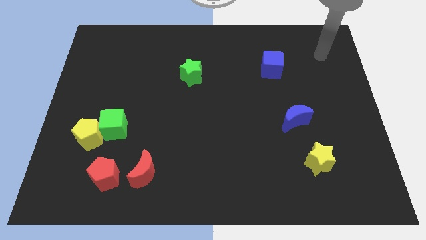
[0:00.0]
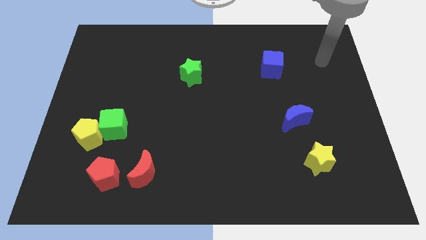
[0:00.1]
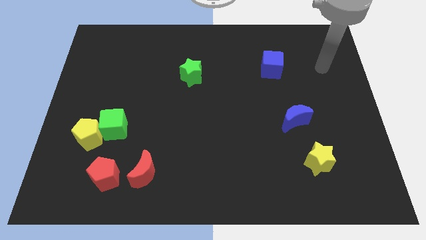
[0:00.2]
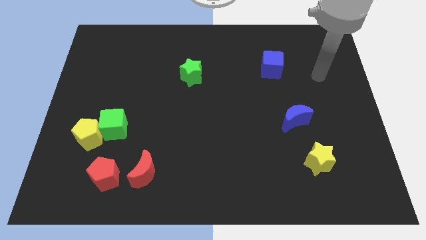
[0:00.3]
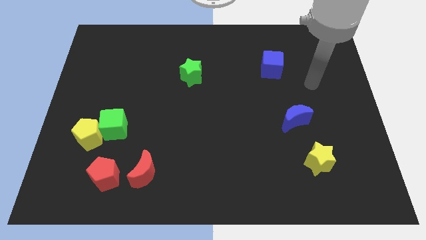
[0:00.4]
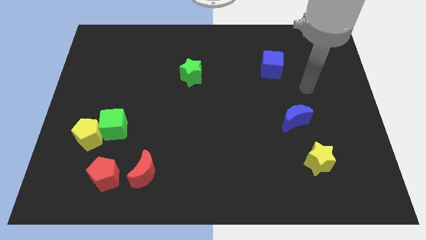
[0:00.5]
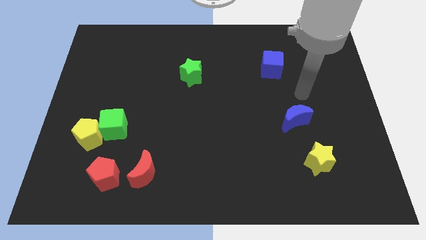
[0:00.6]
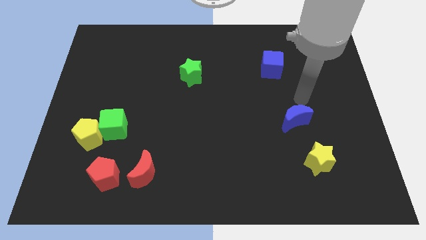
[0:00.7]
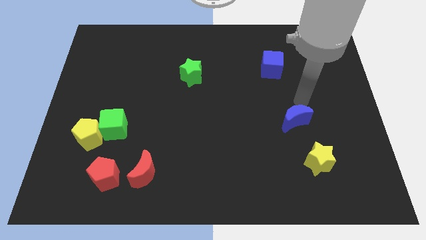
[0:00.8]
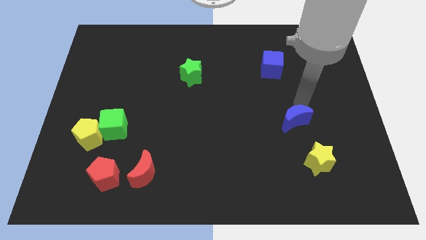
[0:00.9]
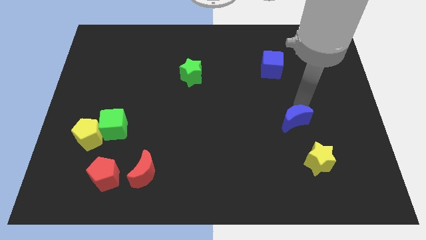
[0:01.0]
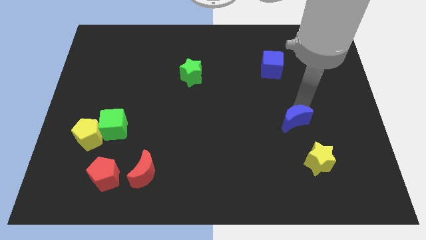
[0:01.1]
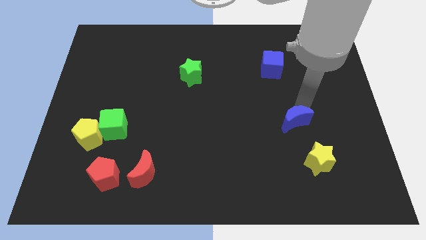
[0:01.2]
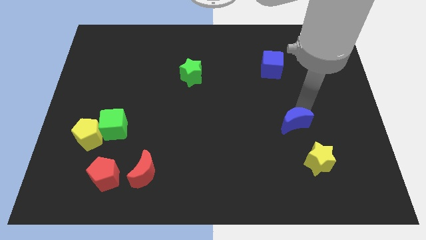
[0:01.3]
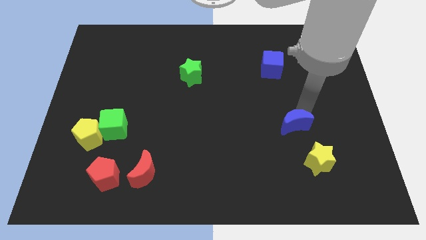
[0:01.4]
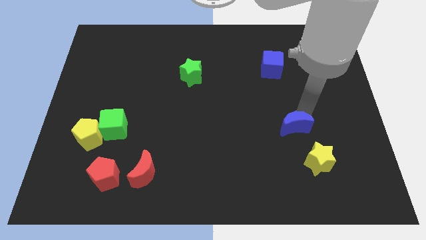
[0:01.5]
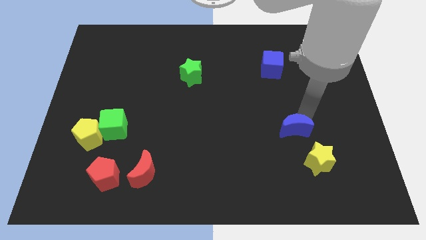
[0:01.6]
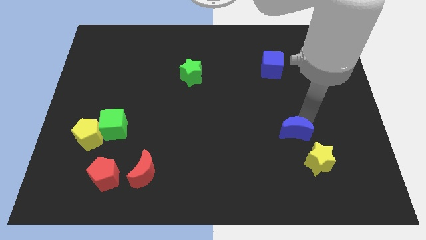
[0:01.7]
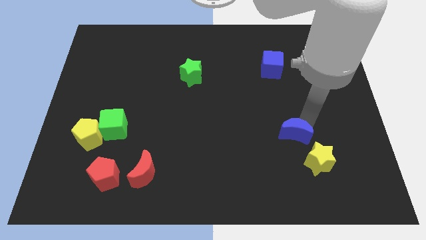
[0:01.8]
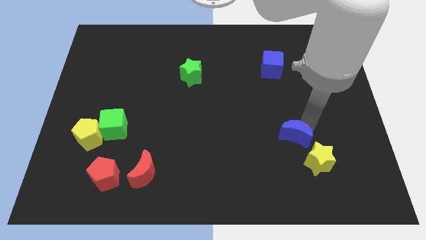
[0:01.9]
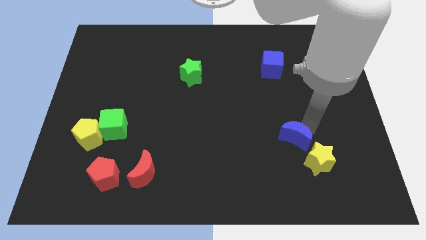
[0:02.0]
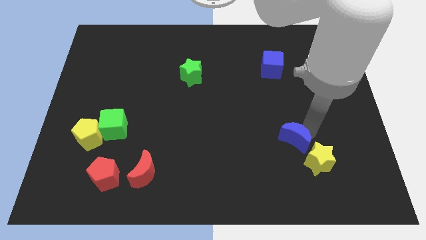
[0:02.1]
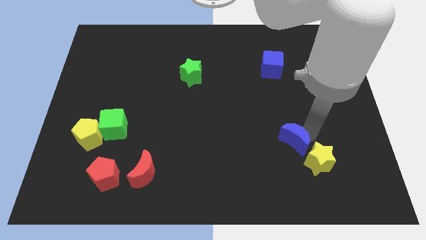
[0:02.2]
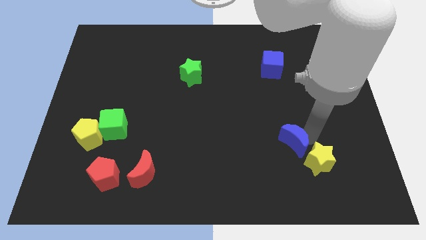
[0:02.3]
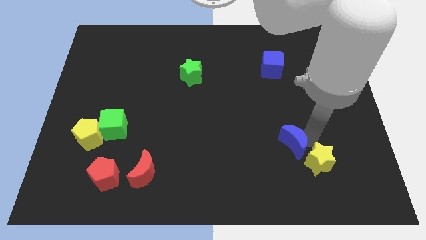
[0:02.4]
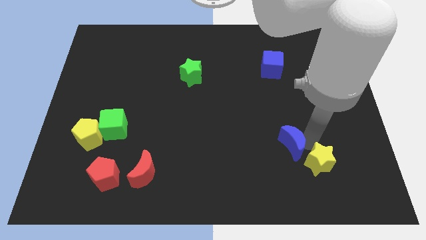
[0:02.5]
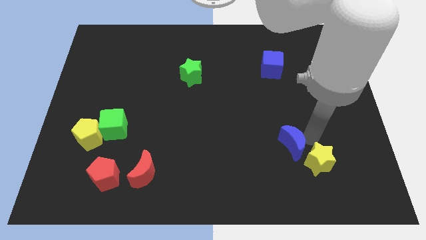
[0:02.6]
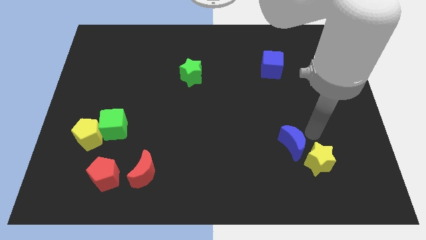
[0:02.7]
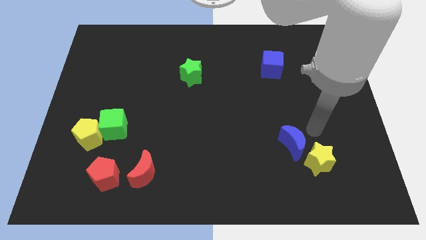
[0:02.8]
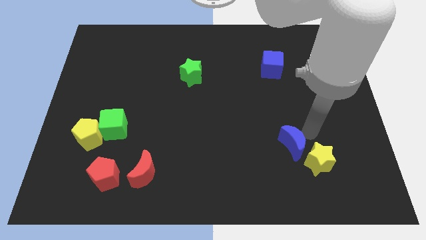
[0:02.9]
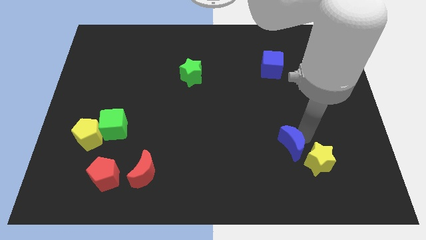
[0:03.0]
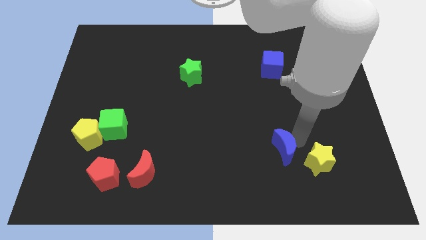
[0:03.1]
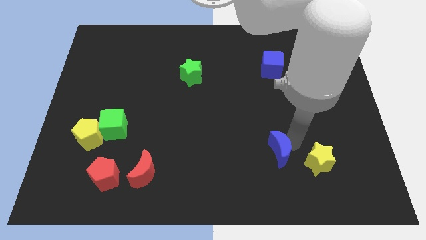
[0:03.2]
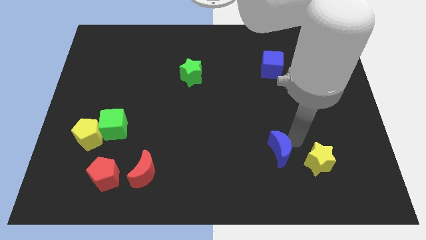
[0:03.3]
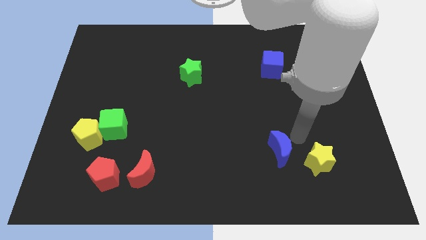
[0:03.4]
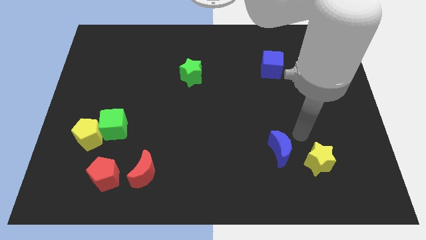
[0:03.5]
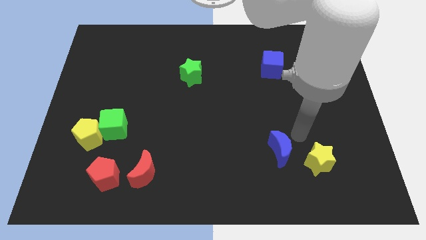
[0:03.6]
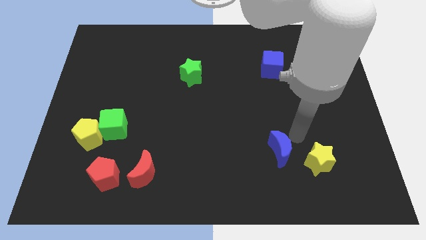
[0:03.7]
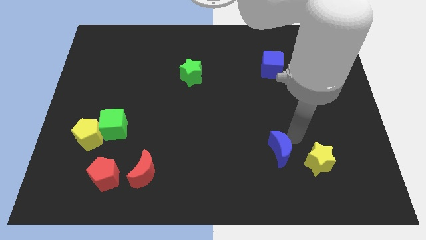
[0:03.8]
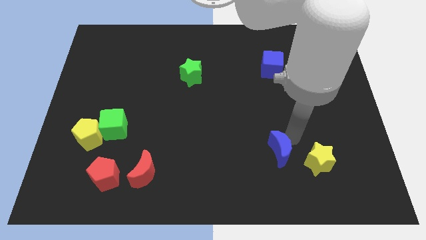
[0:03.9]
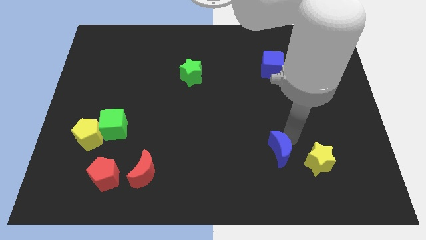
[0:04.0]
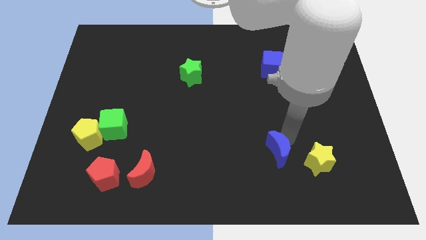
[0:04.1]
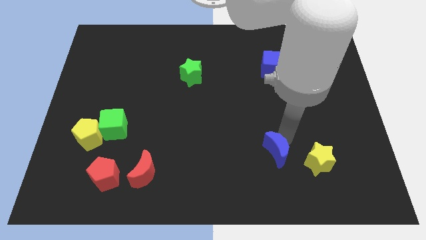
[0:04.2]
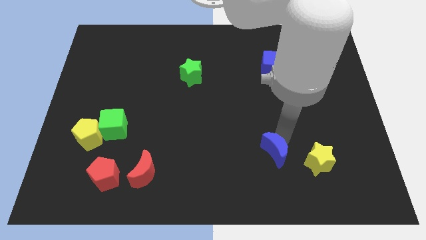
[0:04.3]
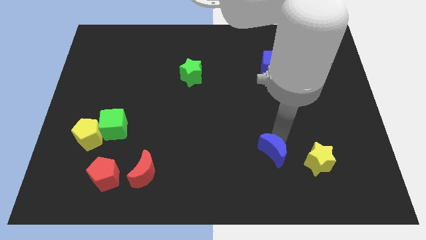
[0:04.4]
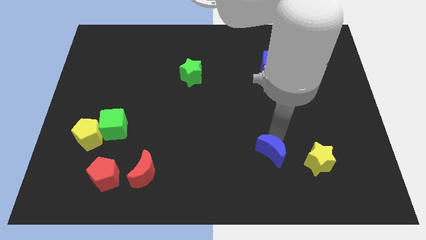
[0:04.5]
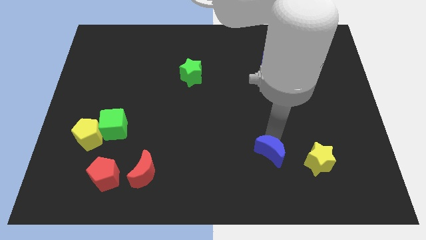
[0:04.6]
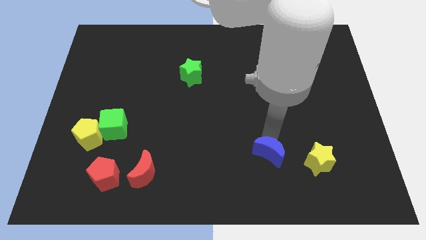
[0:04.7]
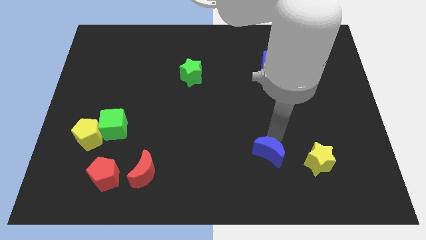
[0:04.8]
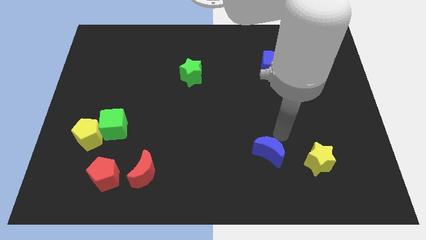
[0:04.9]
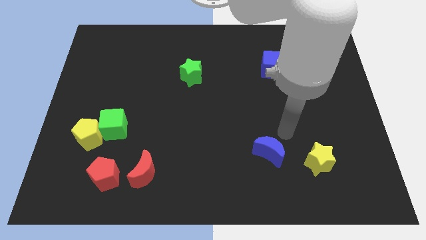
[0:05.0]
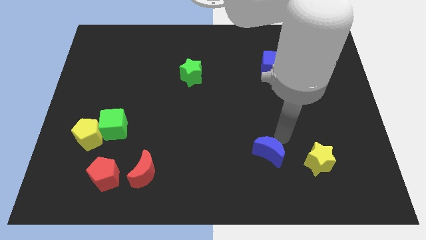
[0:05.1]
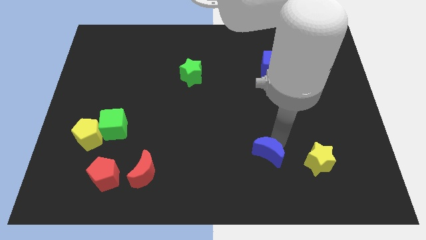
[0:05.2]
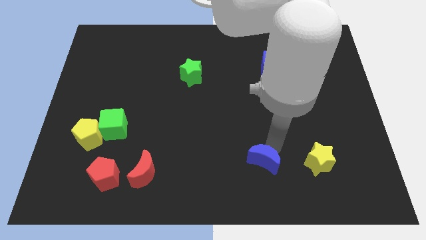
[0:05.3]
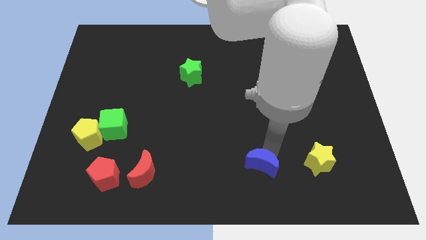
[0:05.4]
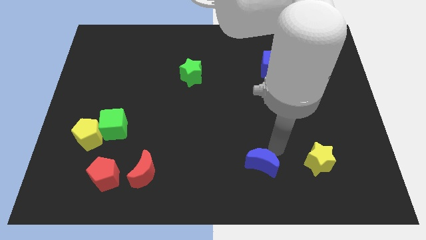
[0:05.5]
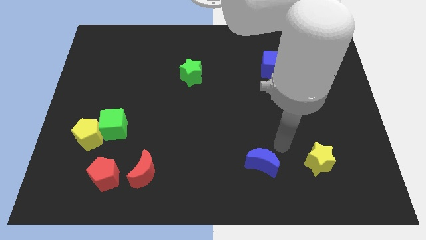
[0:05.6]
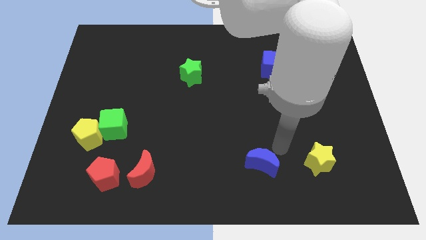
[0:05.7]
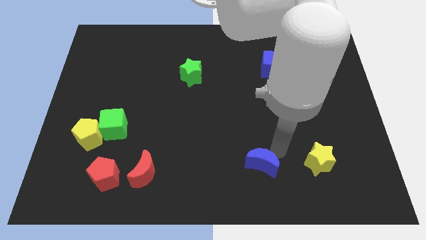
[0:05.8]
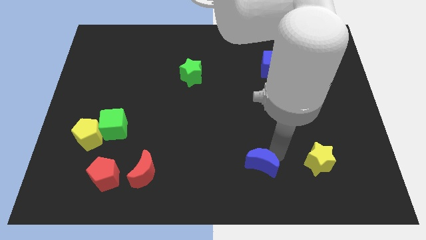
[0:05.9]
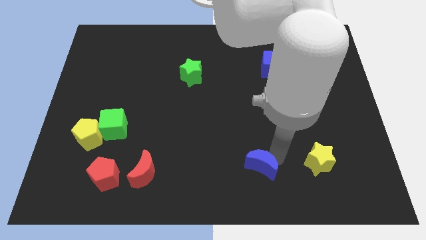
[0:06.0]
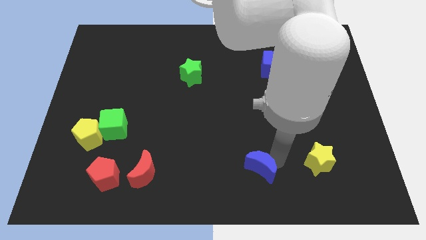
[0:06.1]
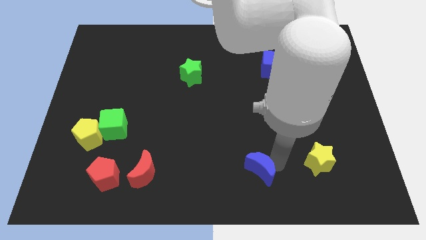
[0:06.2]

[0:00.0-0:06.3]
put the blue moon to the bottom side
